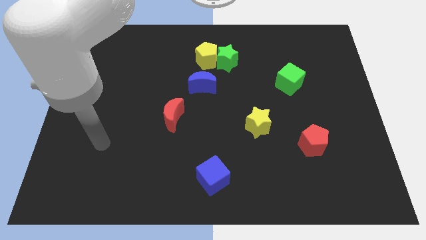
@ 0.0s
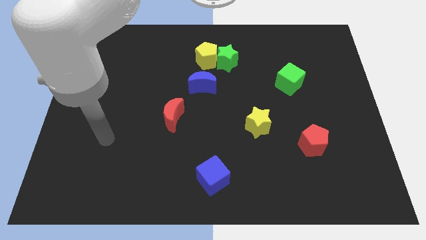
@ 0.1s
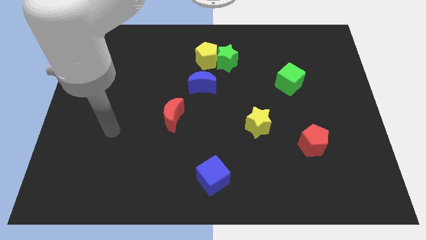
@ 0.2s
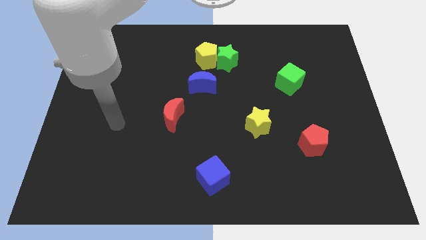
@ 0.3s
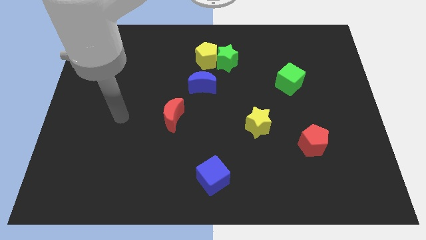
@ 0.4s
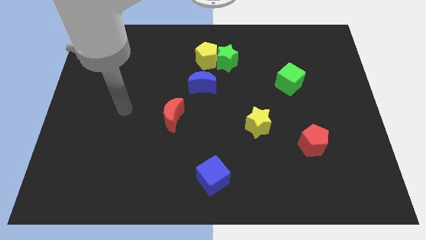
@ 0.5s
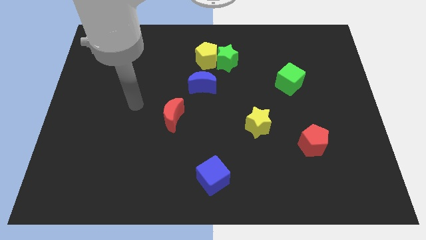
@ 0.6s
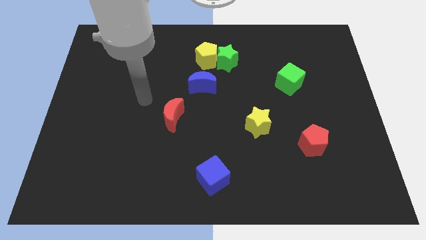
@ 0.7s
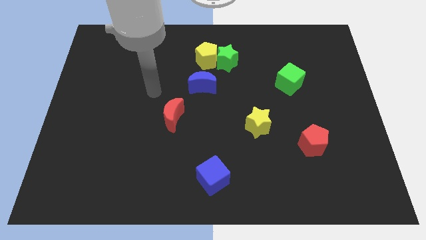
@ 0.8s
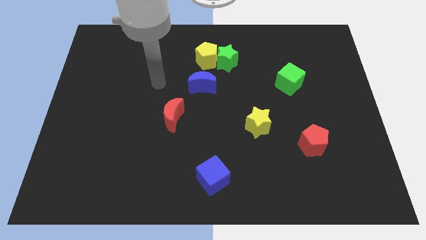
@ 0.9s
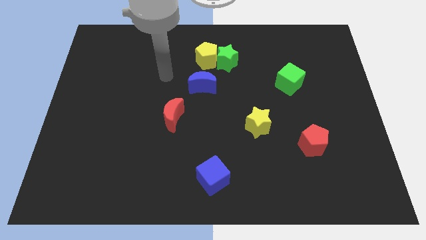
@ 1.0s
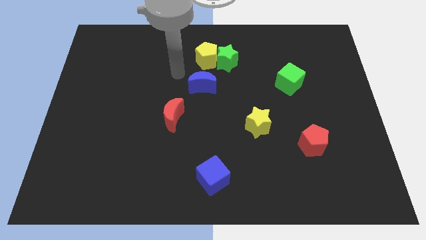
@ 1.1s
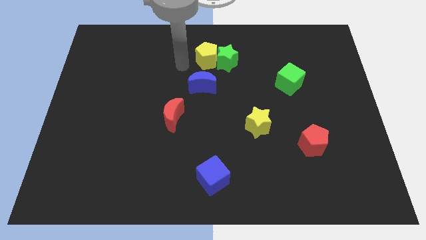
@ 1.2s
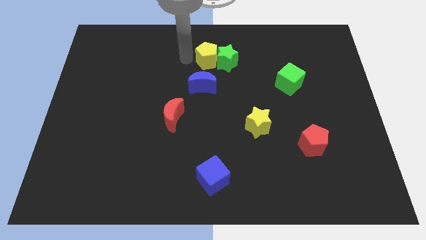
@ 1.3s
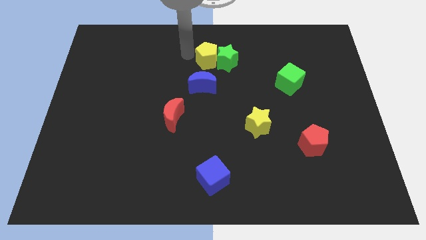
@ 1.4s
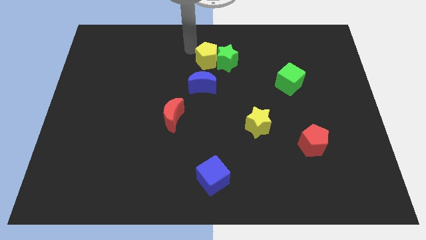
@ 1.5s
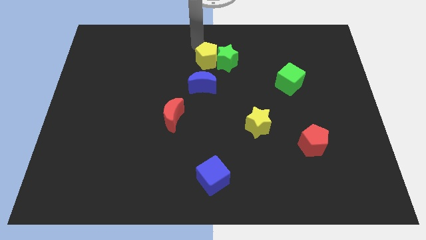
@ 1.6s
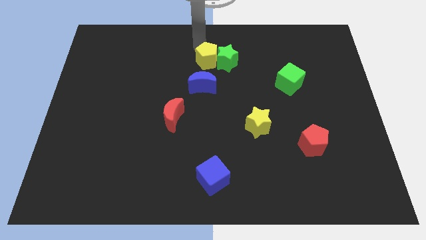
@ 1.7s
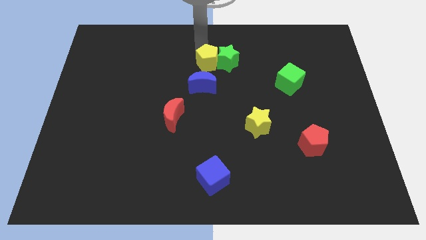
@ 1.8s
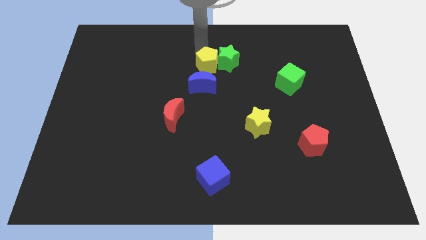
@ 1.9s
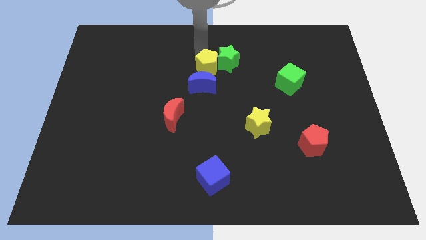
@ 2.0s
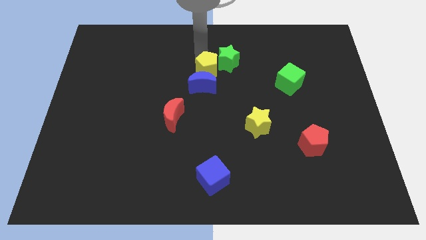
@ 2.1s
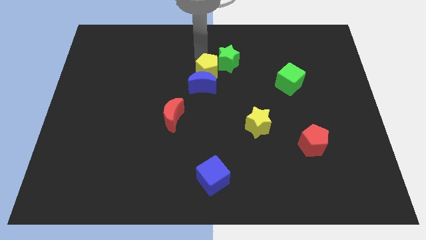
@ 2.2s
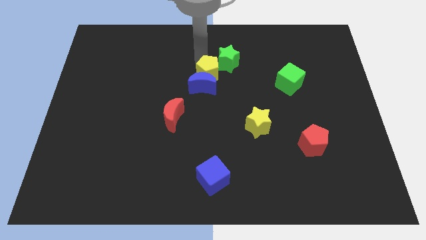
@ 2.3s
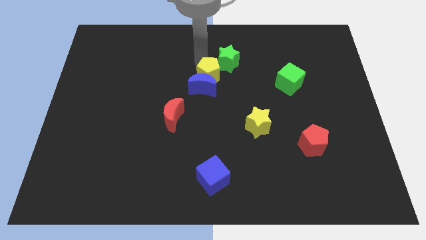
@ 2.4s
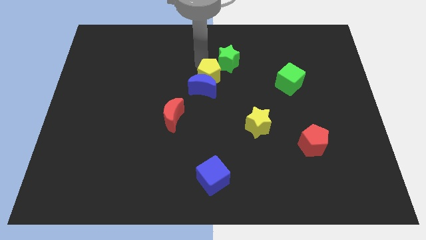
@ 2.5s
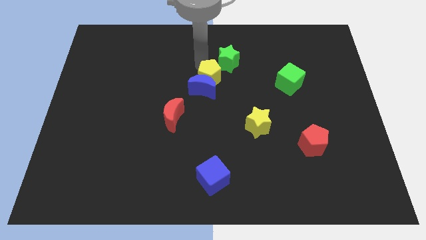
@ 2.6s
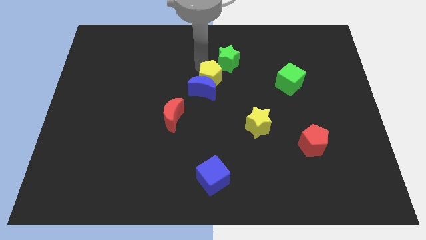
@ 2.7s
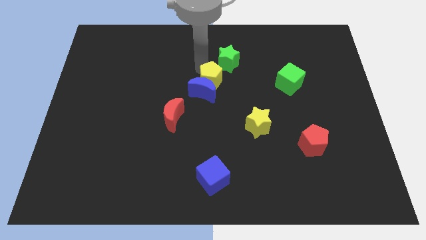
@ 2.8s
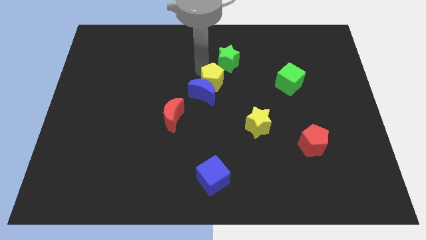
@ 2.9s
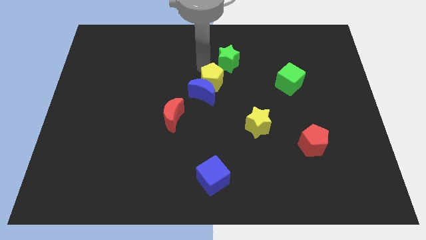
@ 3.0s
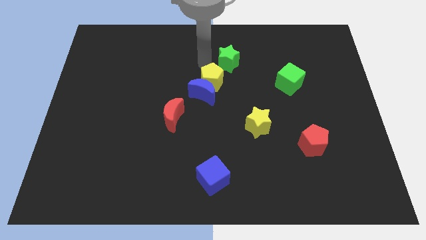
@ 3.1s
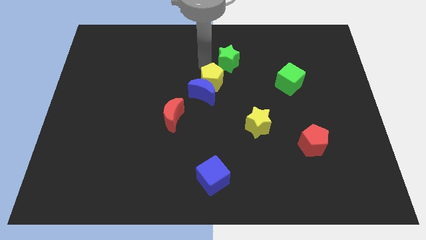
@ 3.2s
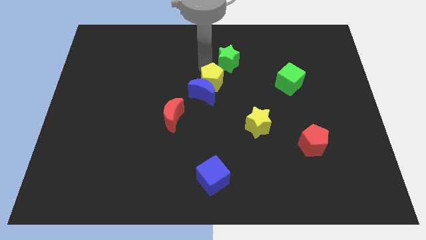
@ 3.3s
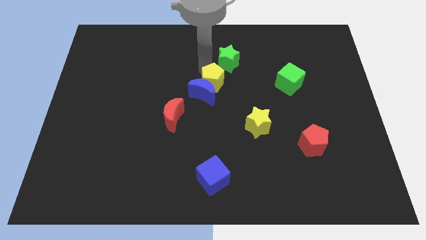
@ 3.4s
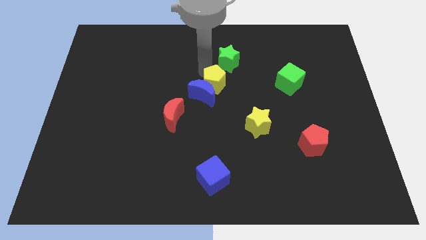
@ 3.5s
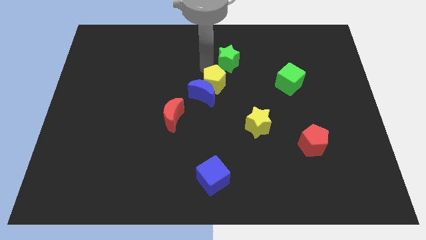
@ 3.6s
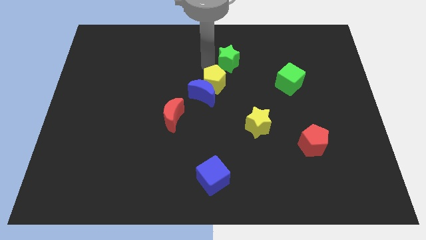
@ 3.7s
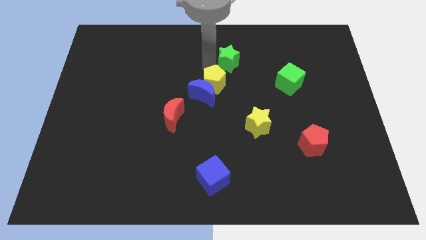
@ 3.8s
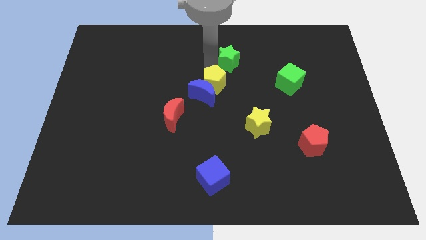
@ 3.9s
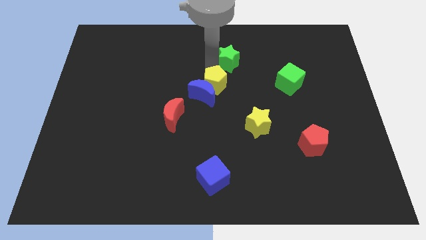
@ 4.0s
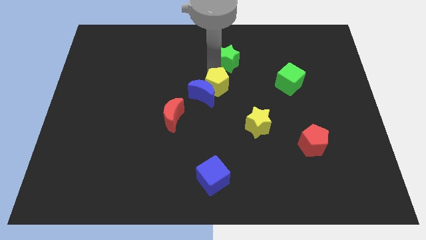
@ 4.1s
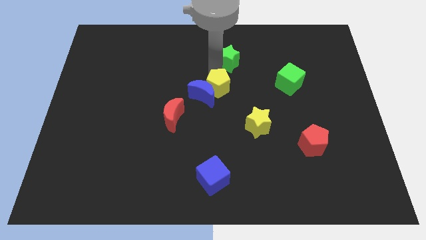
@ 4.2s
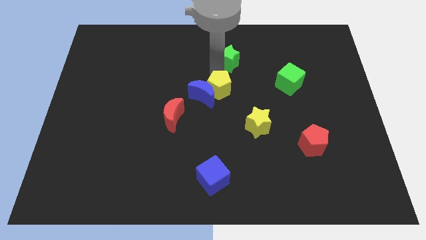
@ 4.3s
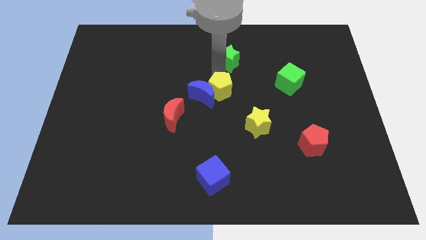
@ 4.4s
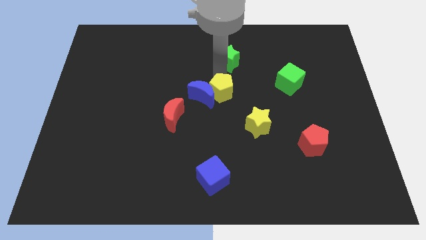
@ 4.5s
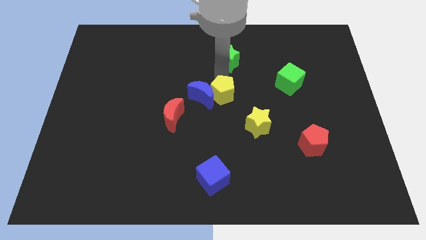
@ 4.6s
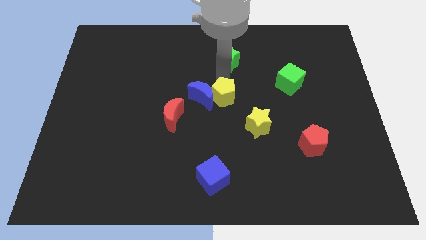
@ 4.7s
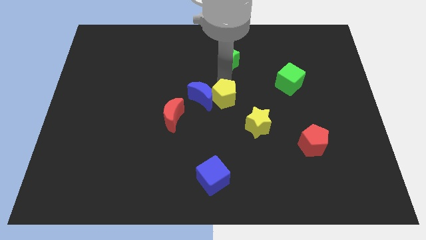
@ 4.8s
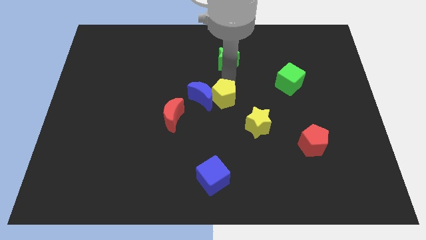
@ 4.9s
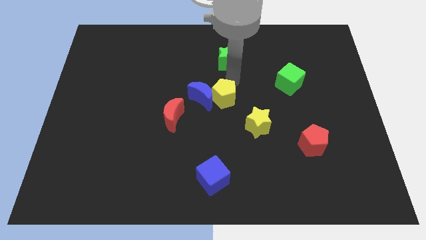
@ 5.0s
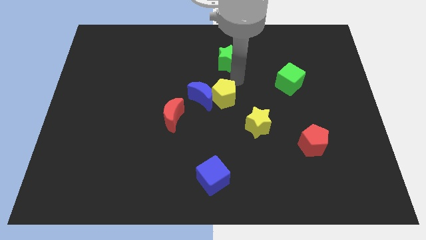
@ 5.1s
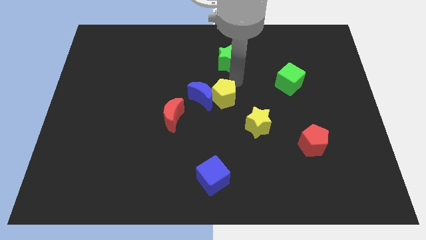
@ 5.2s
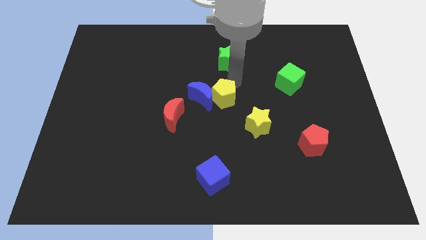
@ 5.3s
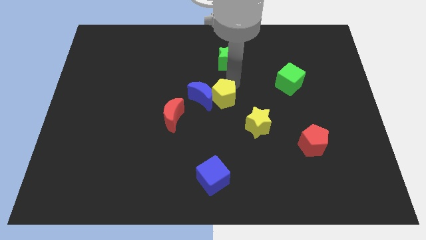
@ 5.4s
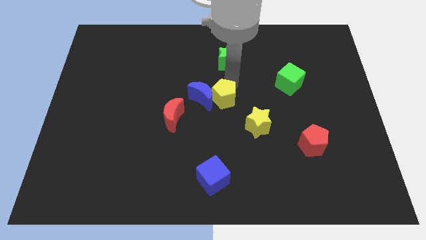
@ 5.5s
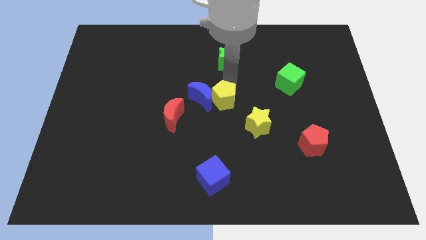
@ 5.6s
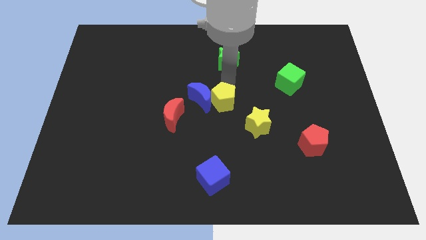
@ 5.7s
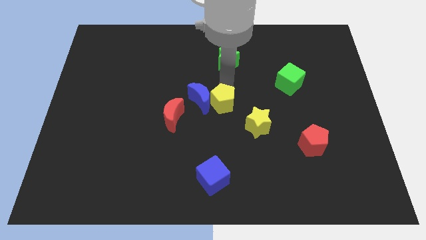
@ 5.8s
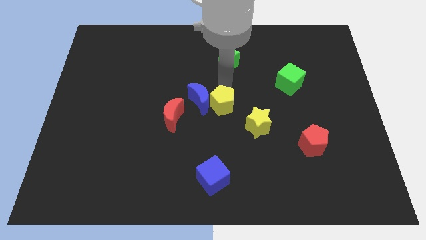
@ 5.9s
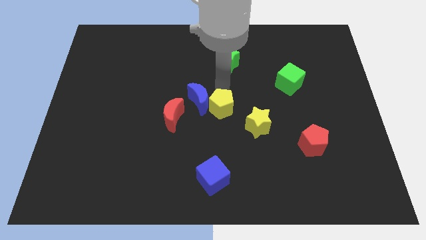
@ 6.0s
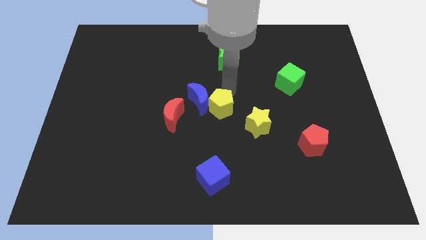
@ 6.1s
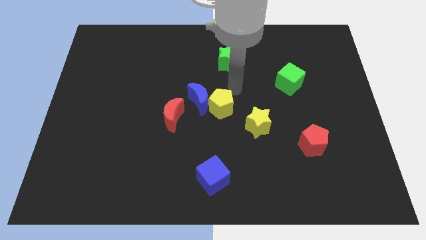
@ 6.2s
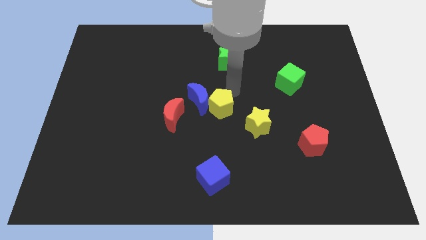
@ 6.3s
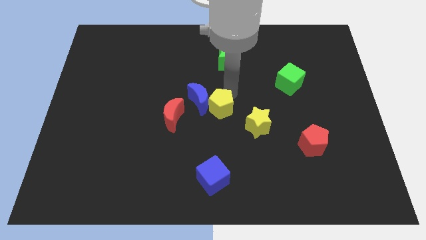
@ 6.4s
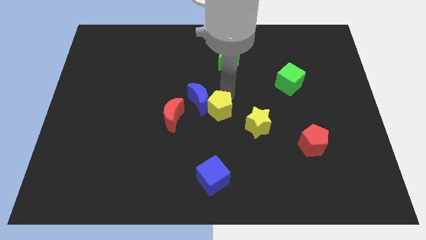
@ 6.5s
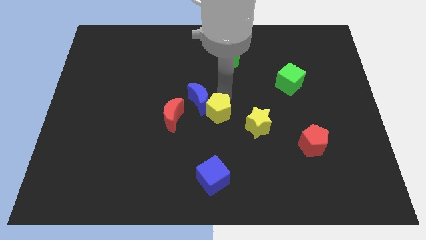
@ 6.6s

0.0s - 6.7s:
slide the yellow pentagon below the blue moon

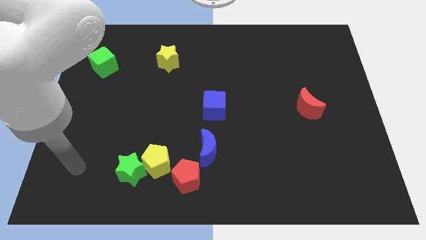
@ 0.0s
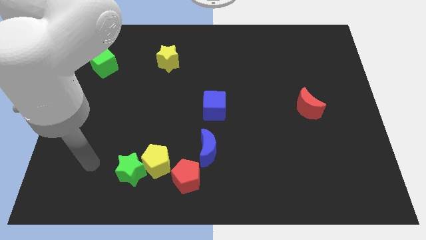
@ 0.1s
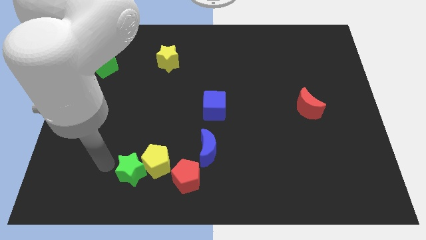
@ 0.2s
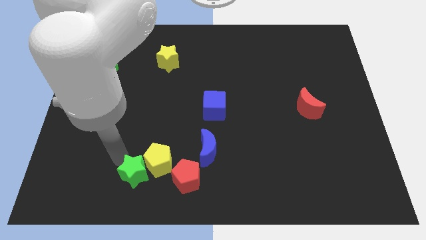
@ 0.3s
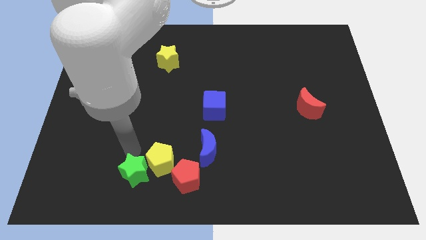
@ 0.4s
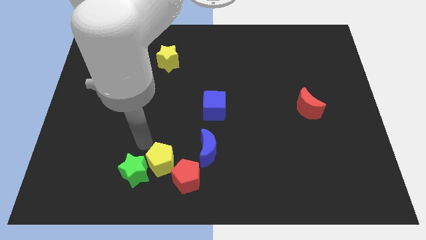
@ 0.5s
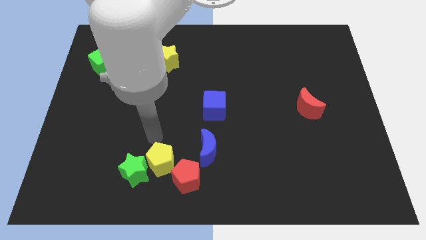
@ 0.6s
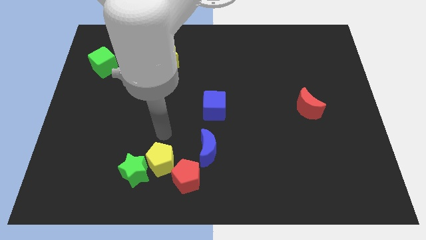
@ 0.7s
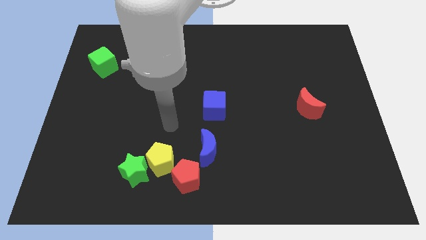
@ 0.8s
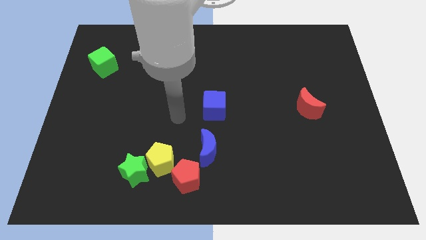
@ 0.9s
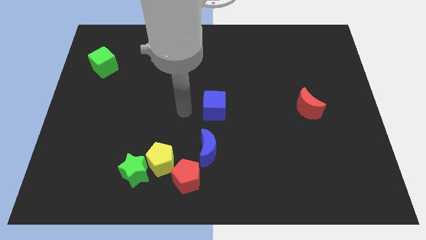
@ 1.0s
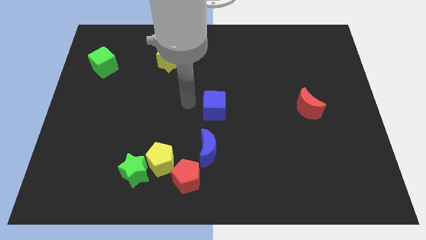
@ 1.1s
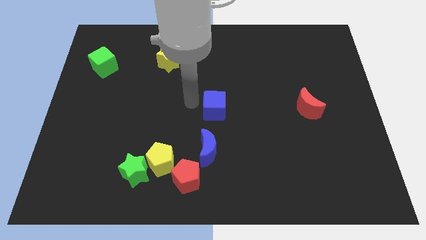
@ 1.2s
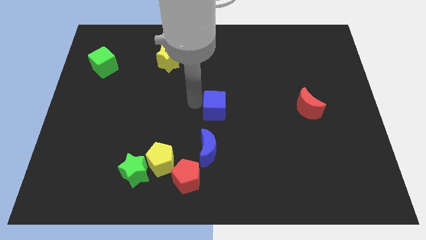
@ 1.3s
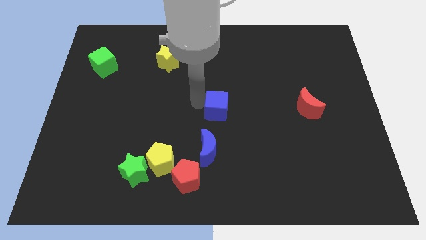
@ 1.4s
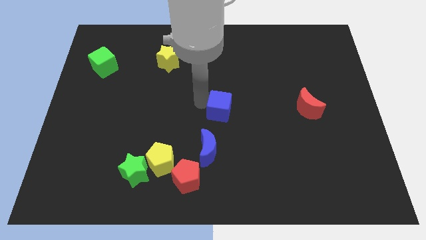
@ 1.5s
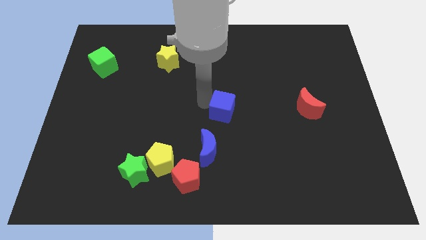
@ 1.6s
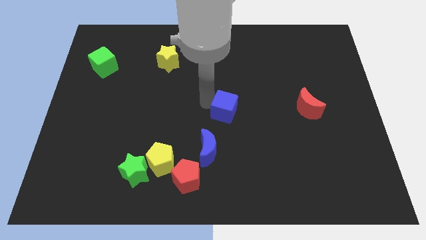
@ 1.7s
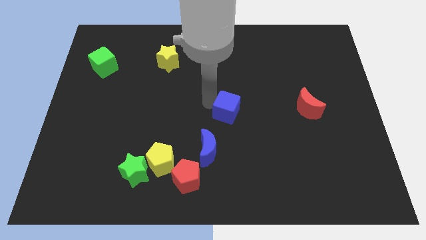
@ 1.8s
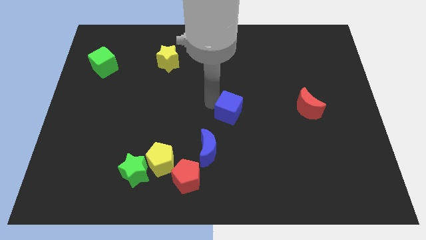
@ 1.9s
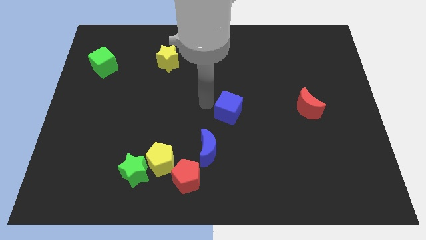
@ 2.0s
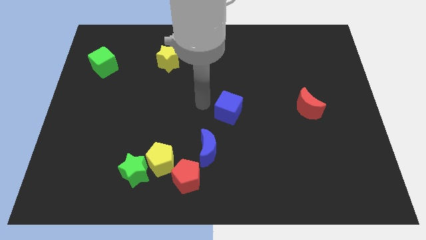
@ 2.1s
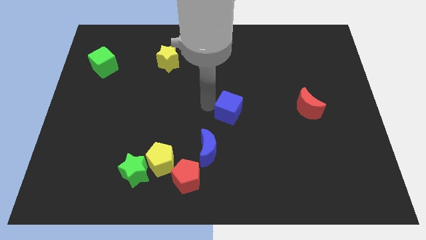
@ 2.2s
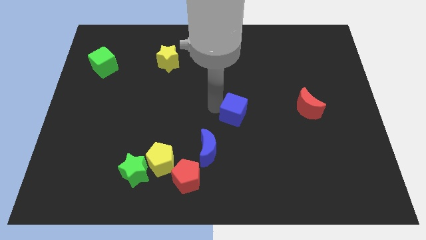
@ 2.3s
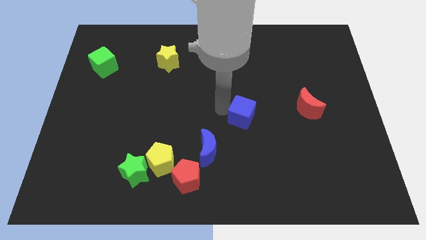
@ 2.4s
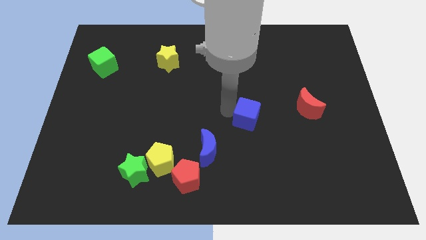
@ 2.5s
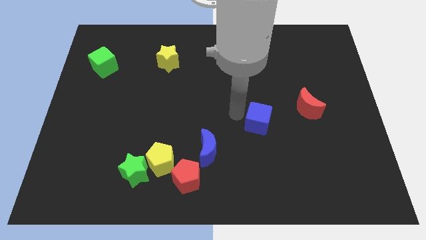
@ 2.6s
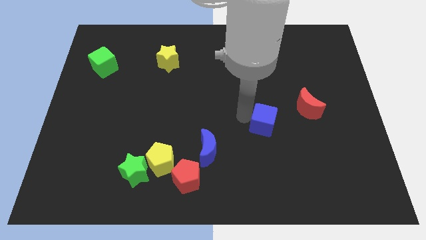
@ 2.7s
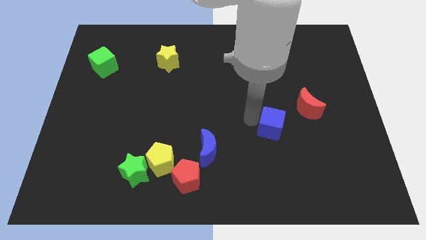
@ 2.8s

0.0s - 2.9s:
move the blue cube to the bottom left side of the red moon
